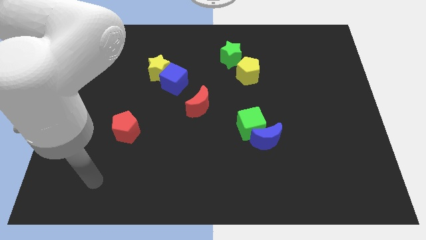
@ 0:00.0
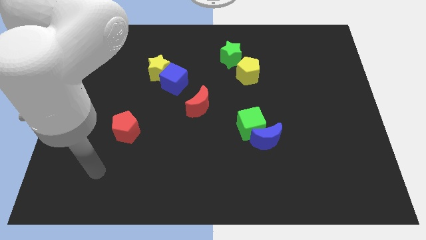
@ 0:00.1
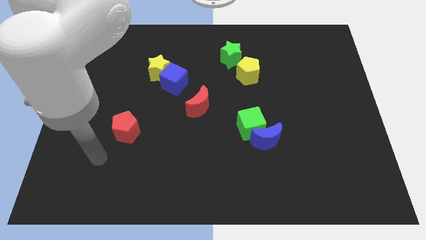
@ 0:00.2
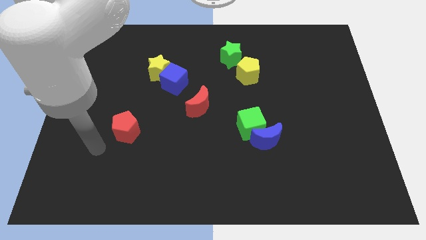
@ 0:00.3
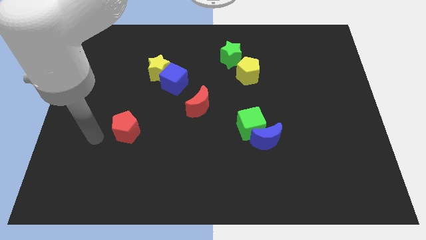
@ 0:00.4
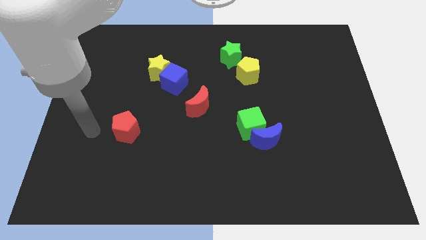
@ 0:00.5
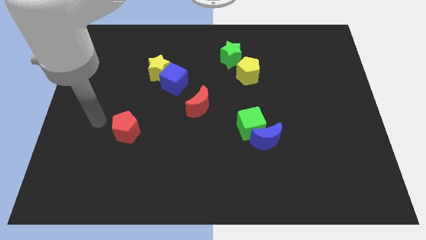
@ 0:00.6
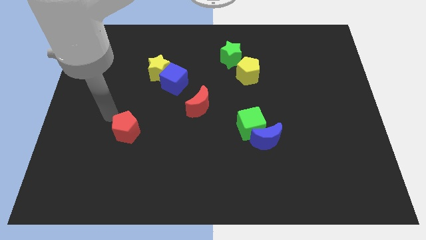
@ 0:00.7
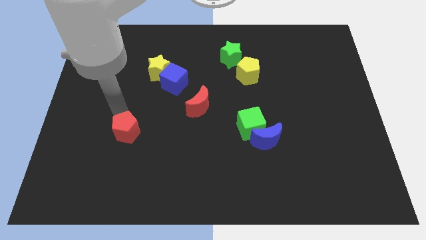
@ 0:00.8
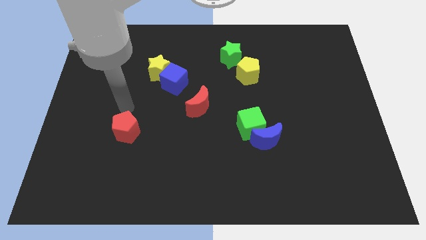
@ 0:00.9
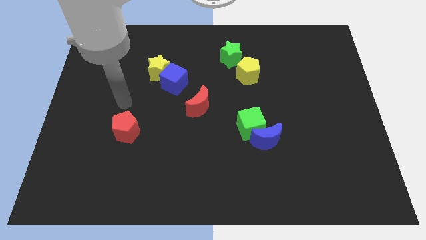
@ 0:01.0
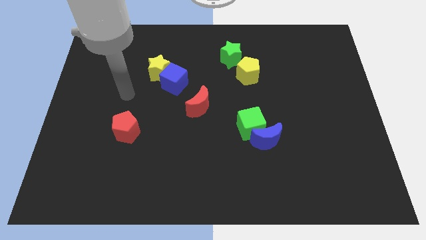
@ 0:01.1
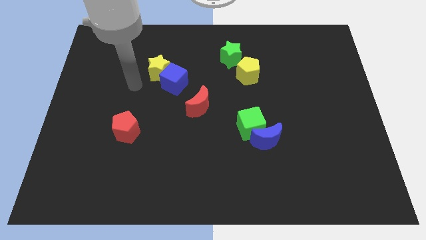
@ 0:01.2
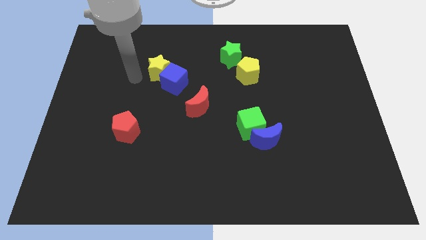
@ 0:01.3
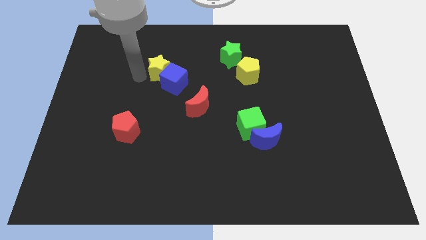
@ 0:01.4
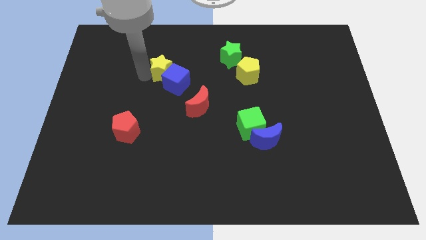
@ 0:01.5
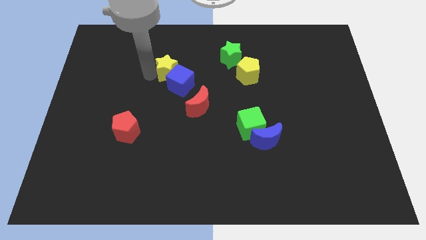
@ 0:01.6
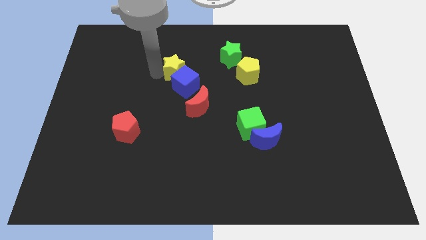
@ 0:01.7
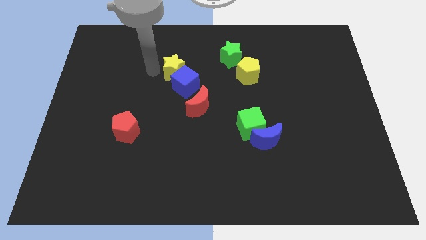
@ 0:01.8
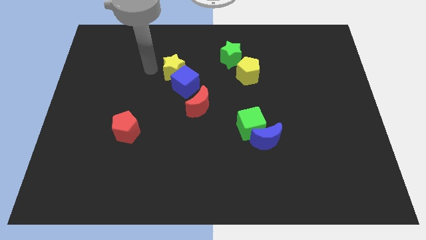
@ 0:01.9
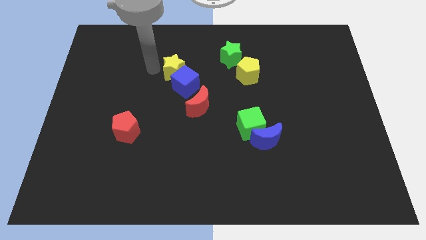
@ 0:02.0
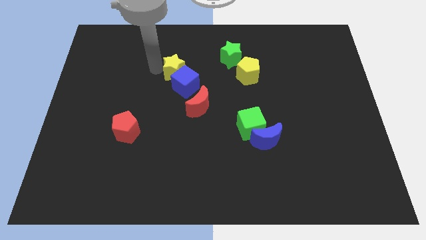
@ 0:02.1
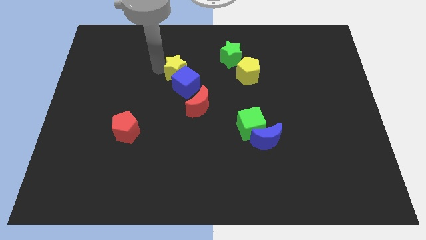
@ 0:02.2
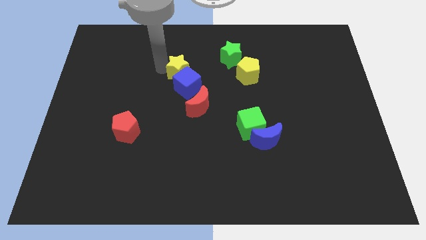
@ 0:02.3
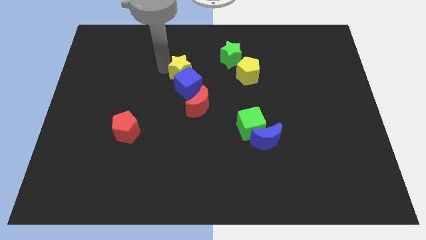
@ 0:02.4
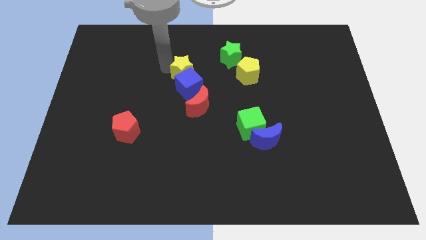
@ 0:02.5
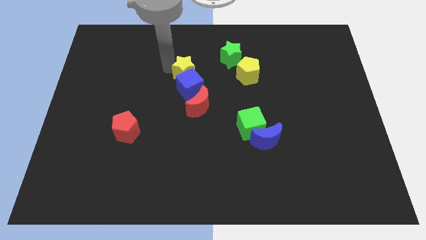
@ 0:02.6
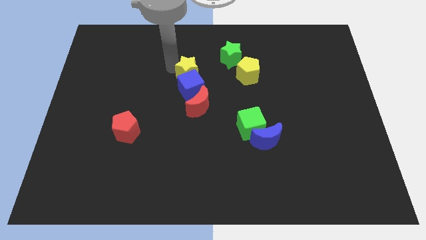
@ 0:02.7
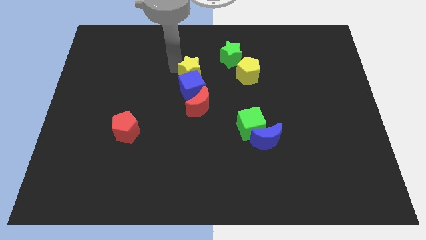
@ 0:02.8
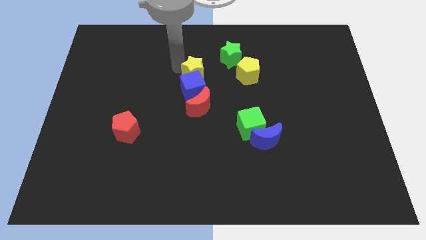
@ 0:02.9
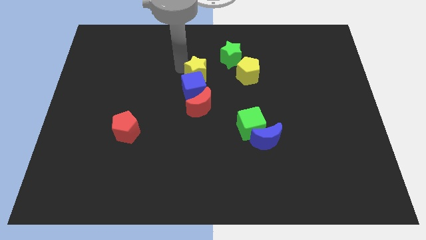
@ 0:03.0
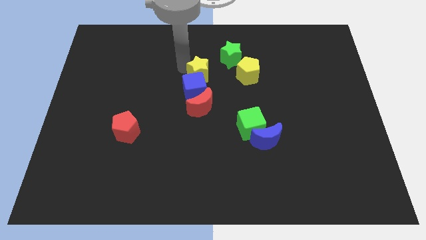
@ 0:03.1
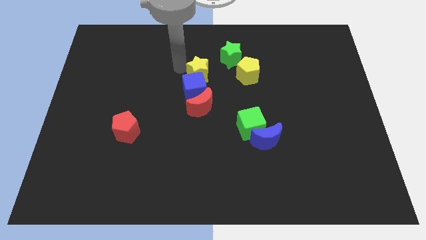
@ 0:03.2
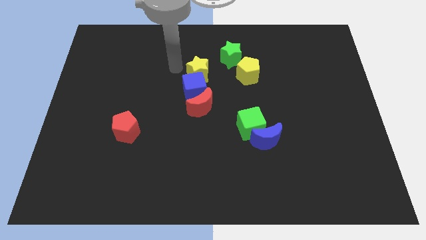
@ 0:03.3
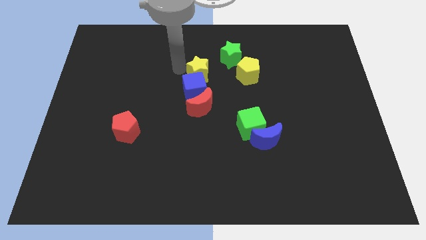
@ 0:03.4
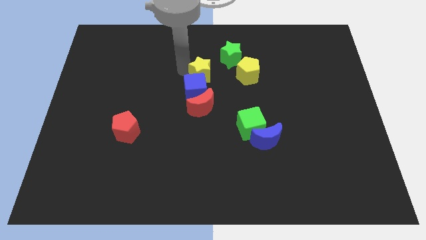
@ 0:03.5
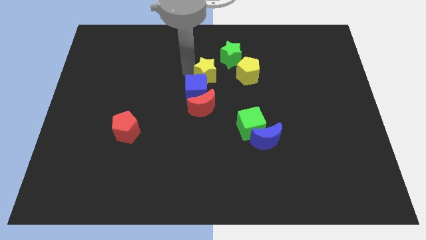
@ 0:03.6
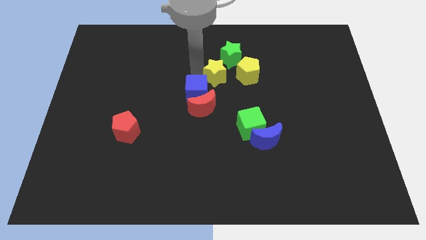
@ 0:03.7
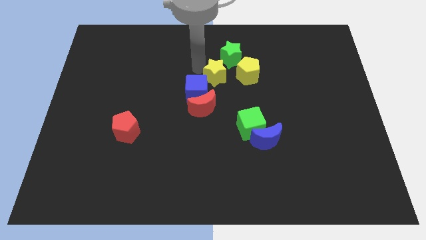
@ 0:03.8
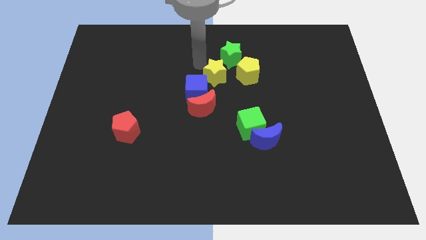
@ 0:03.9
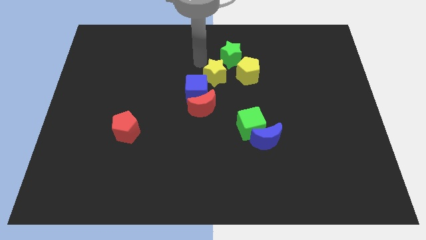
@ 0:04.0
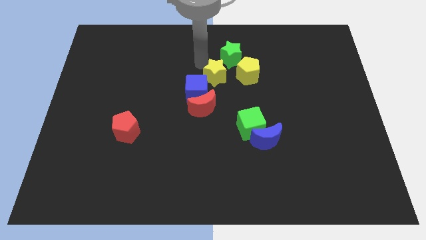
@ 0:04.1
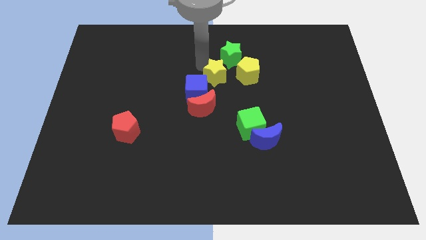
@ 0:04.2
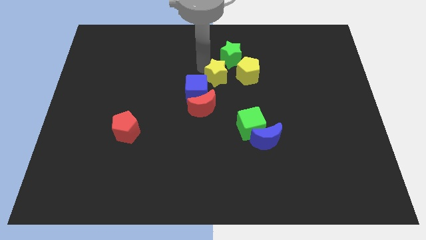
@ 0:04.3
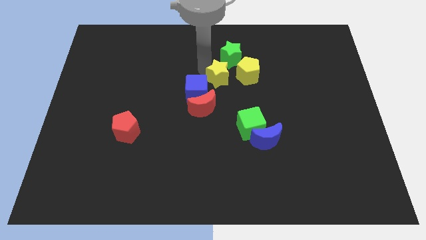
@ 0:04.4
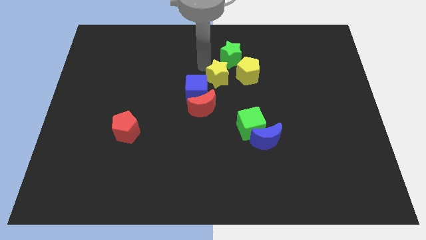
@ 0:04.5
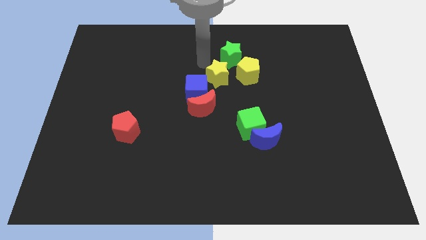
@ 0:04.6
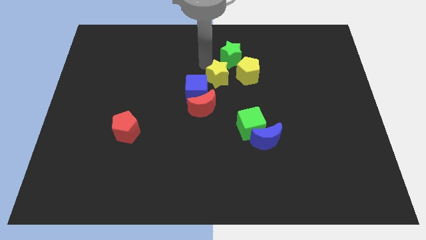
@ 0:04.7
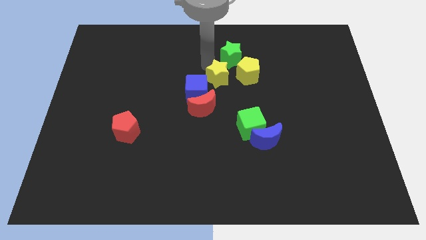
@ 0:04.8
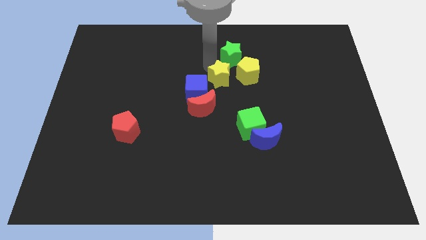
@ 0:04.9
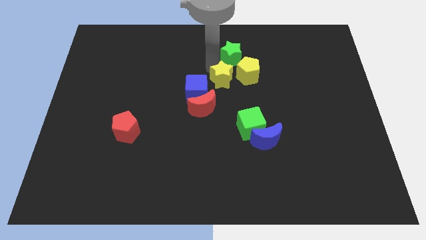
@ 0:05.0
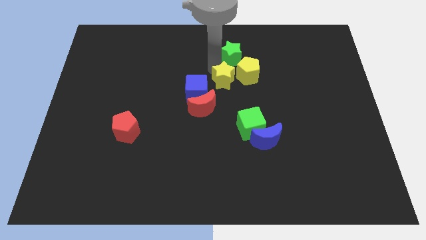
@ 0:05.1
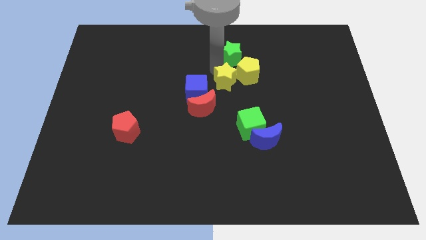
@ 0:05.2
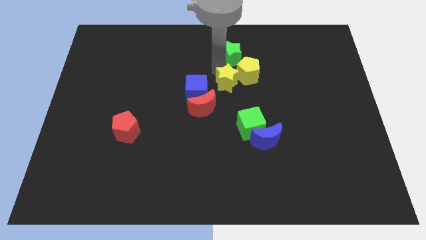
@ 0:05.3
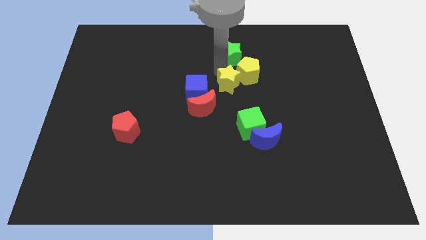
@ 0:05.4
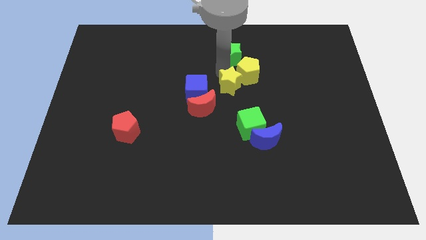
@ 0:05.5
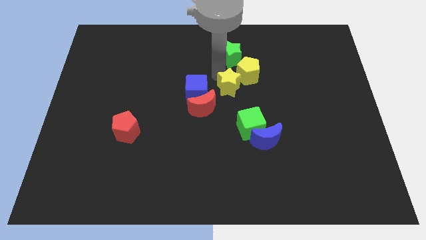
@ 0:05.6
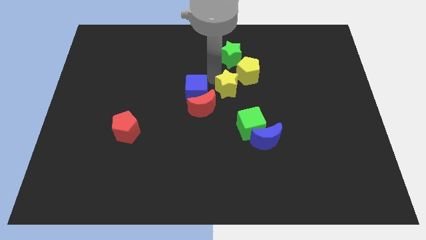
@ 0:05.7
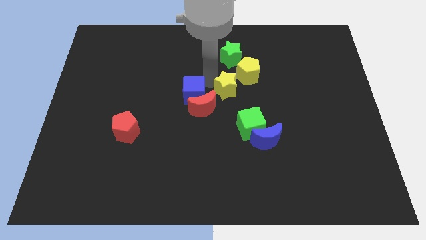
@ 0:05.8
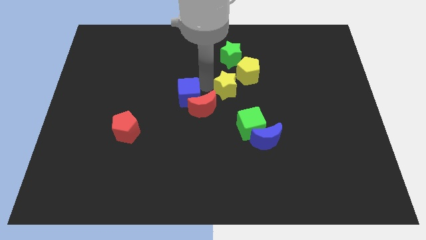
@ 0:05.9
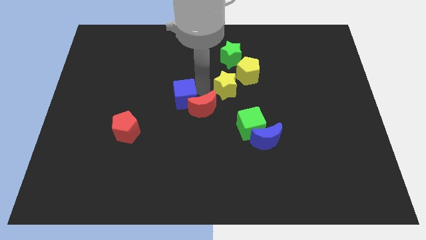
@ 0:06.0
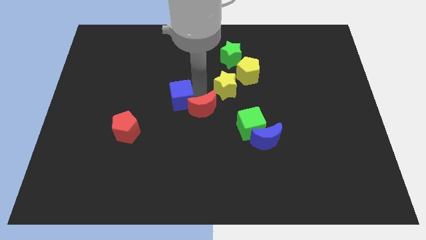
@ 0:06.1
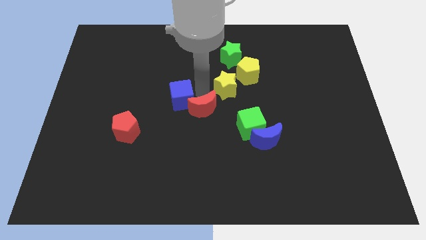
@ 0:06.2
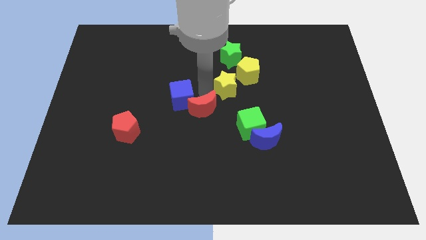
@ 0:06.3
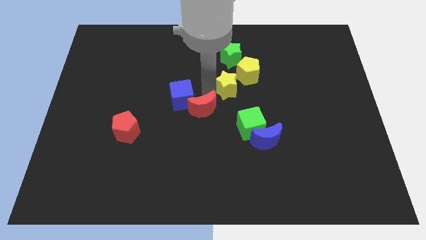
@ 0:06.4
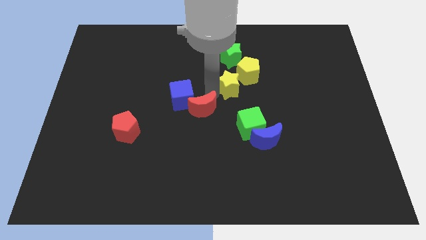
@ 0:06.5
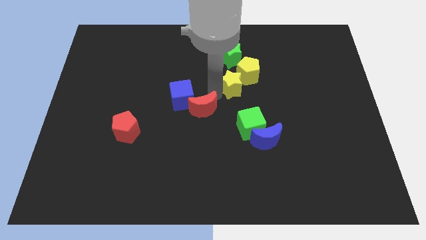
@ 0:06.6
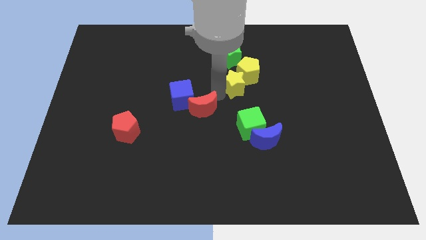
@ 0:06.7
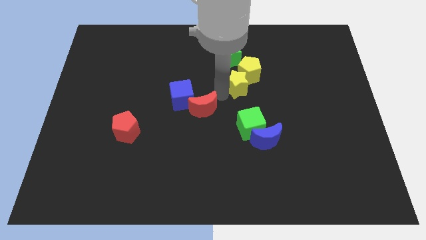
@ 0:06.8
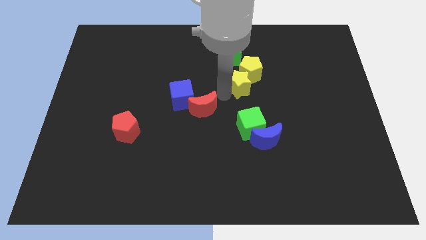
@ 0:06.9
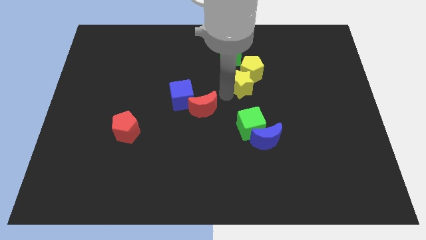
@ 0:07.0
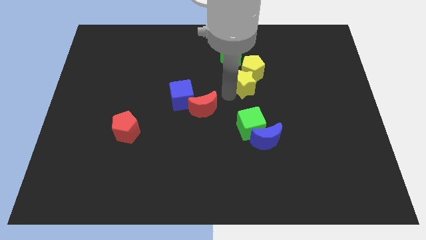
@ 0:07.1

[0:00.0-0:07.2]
slide the yellow star right

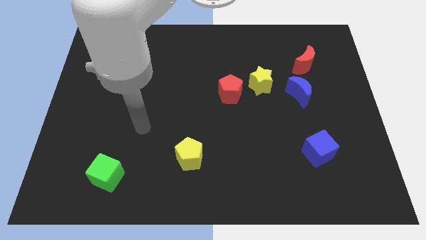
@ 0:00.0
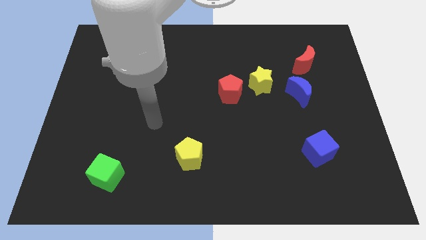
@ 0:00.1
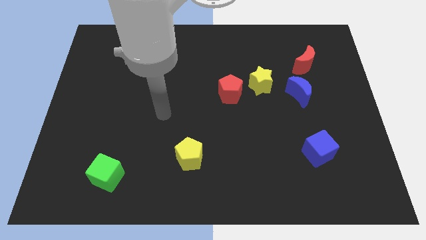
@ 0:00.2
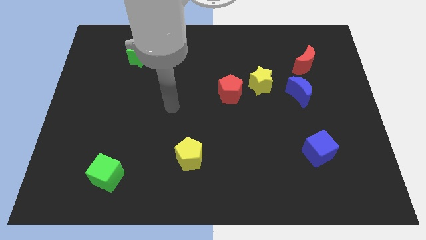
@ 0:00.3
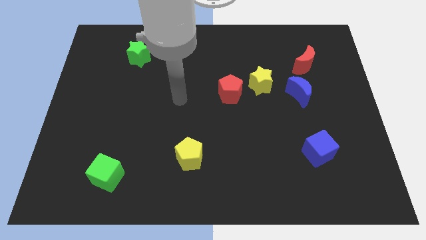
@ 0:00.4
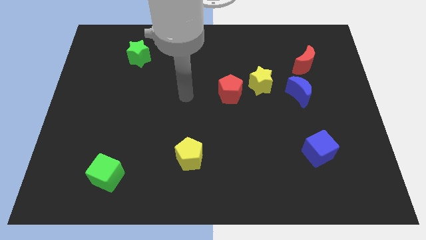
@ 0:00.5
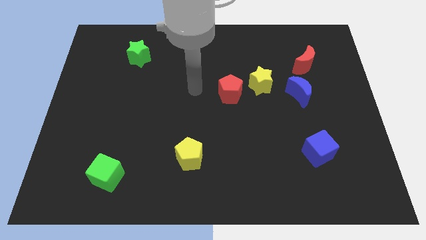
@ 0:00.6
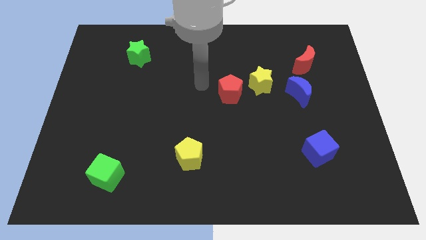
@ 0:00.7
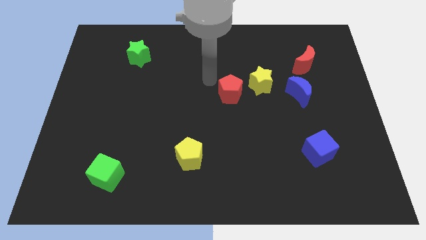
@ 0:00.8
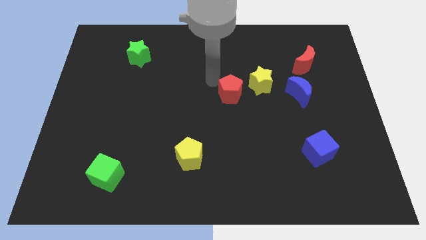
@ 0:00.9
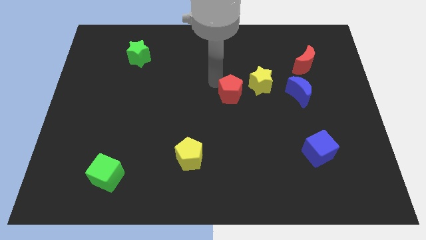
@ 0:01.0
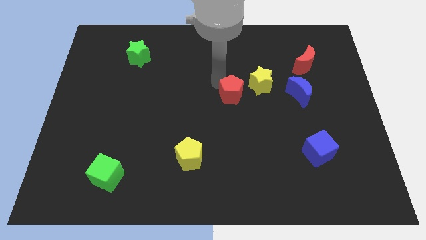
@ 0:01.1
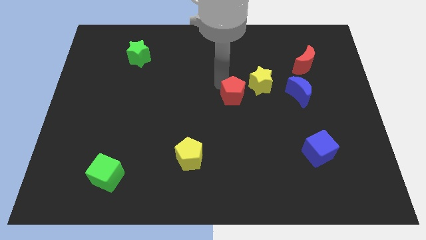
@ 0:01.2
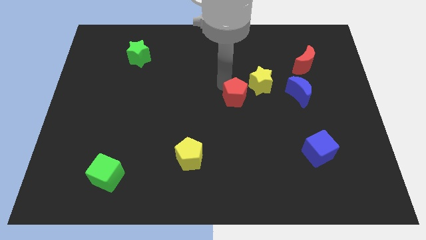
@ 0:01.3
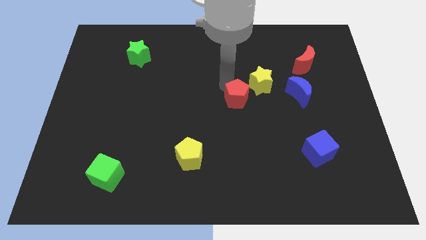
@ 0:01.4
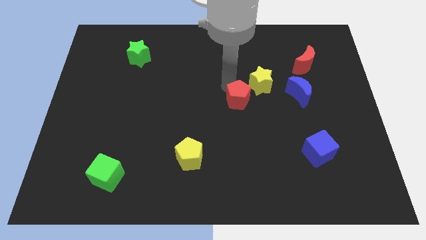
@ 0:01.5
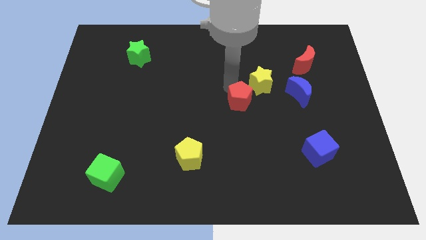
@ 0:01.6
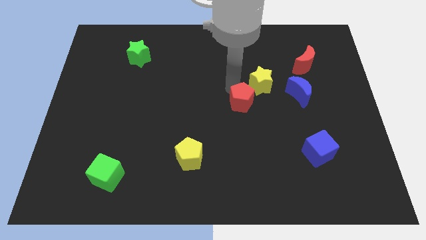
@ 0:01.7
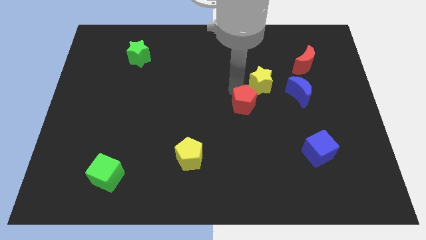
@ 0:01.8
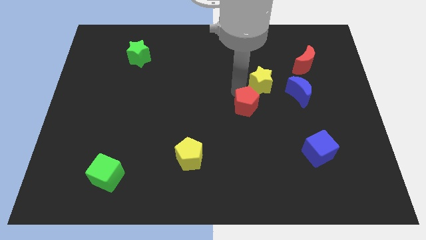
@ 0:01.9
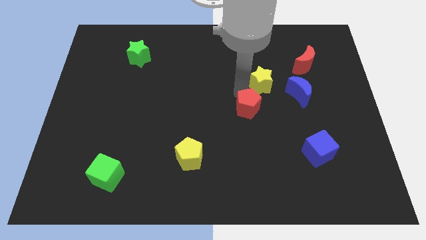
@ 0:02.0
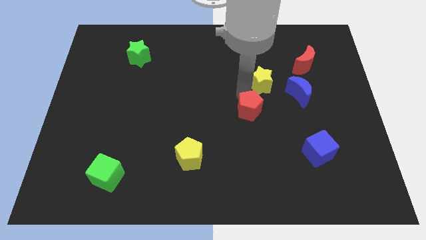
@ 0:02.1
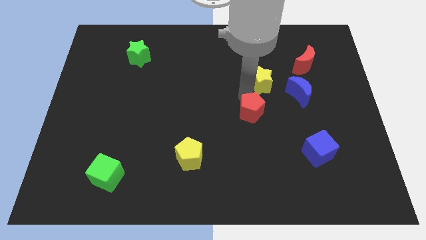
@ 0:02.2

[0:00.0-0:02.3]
slightly push the red pentagon downwards and to the right diagonally
